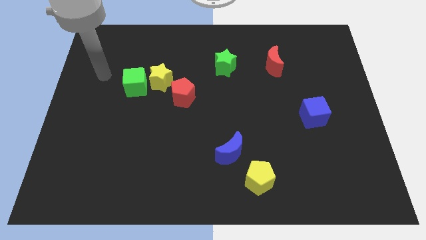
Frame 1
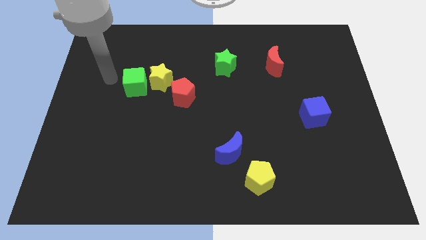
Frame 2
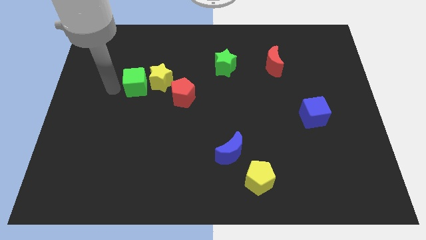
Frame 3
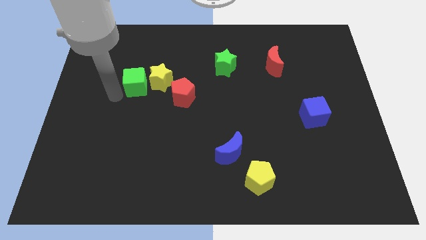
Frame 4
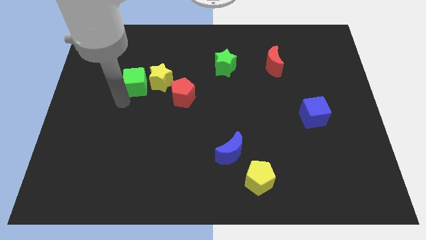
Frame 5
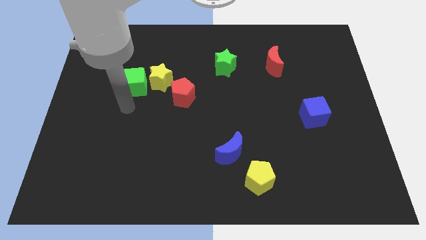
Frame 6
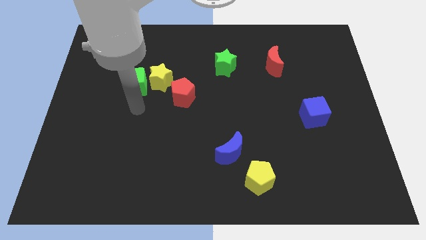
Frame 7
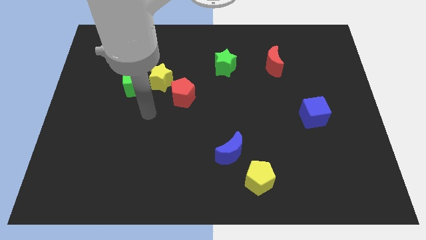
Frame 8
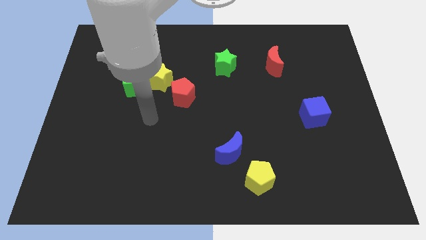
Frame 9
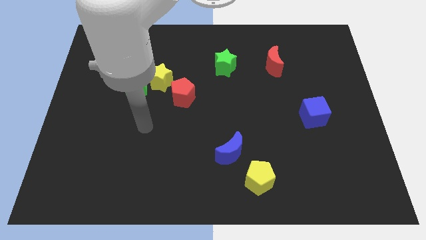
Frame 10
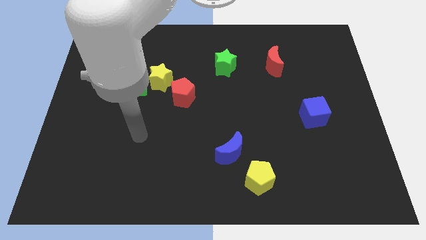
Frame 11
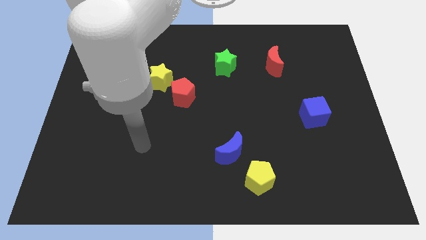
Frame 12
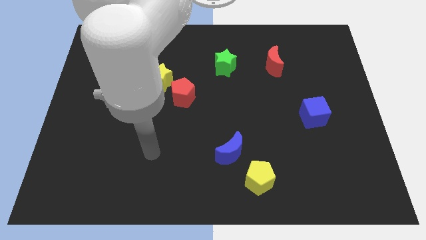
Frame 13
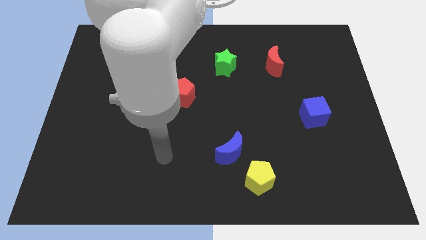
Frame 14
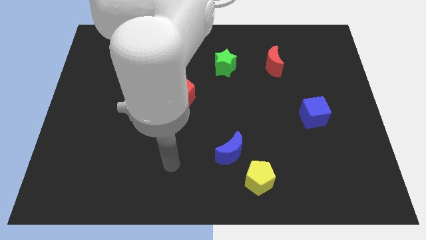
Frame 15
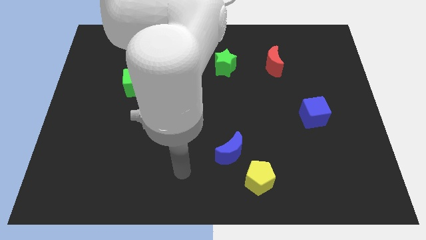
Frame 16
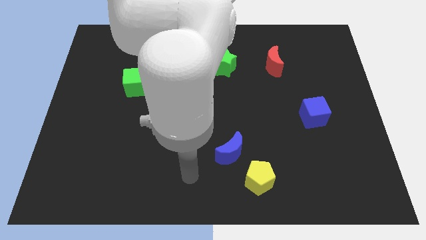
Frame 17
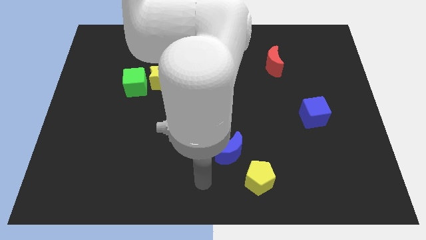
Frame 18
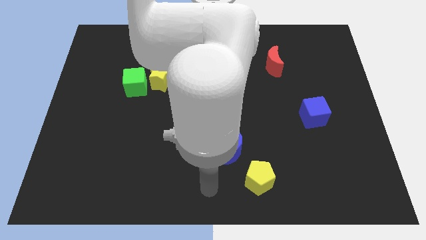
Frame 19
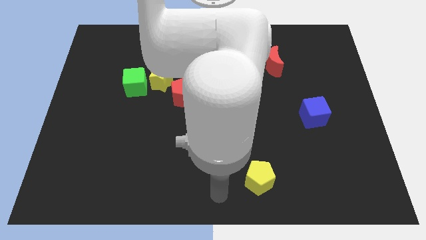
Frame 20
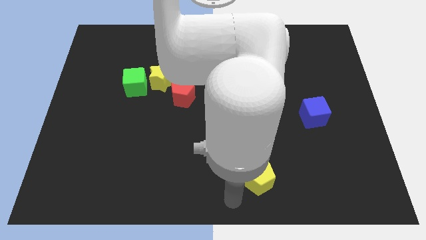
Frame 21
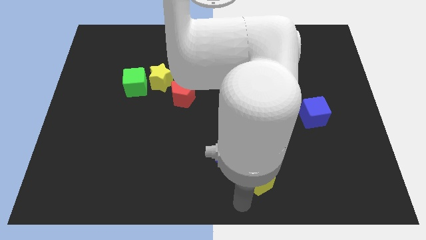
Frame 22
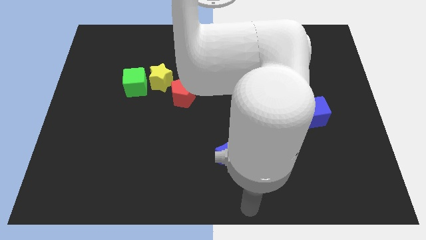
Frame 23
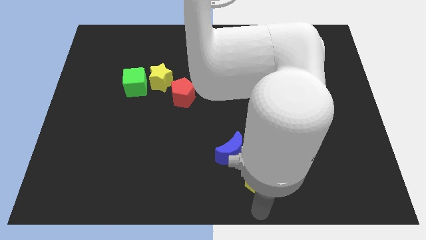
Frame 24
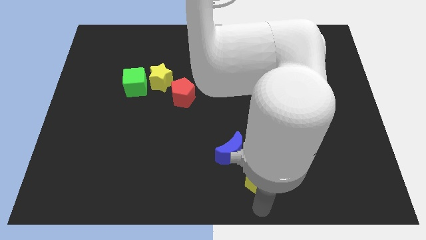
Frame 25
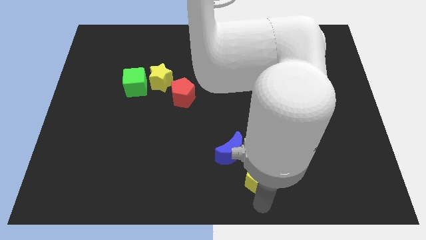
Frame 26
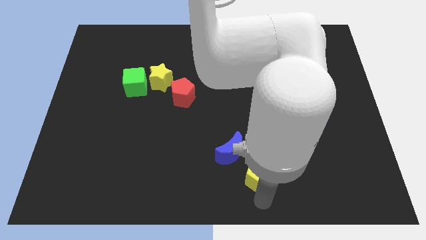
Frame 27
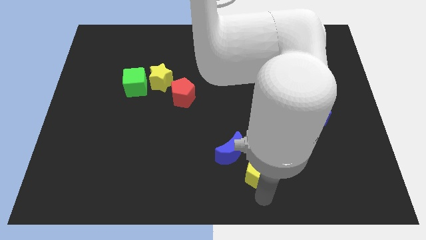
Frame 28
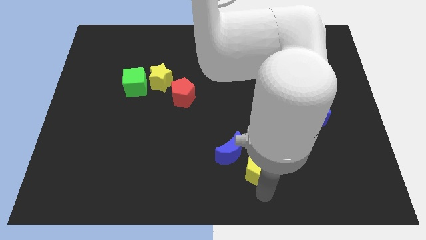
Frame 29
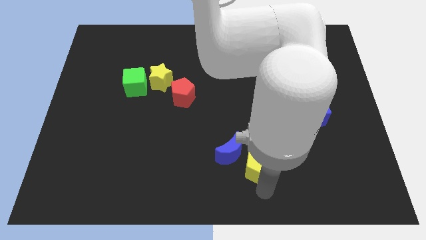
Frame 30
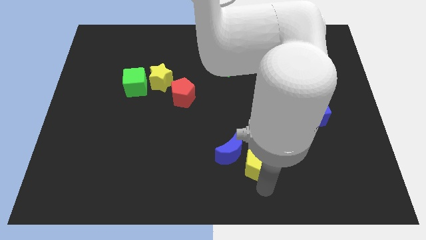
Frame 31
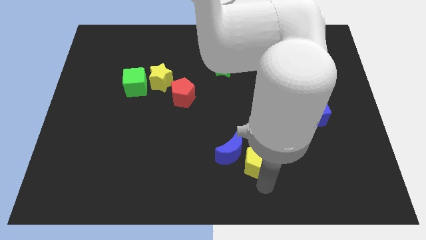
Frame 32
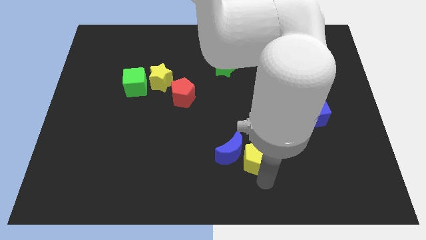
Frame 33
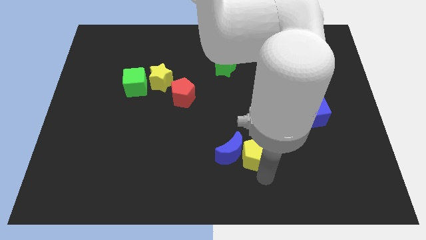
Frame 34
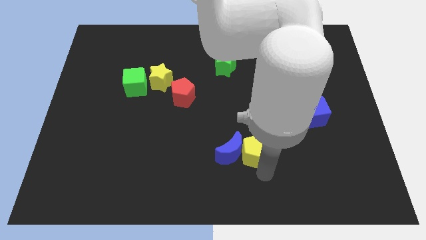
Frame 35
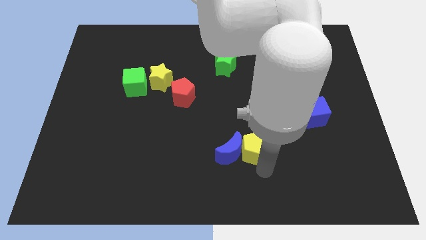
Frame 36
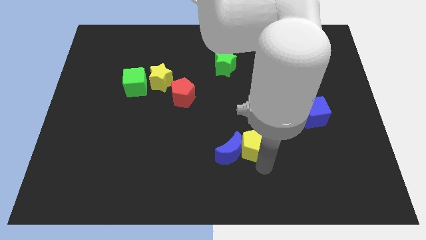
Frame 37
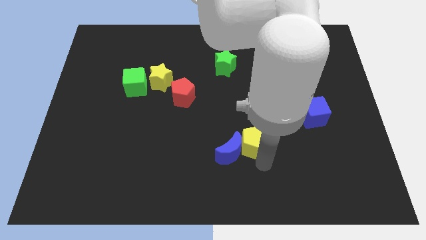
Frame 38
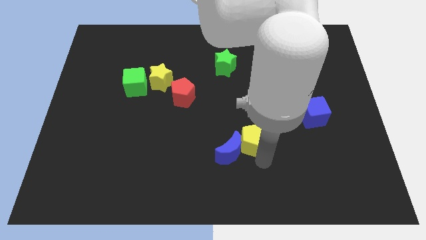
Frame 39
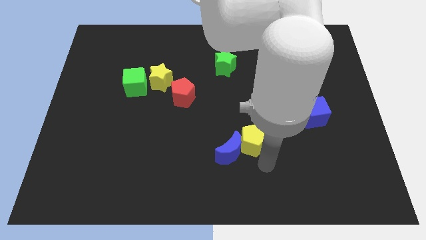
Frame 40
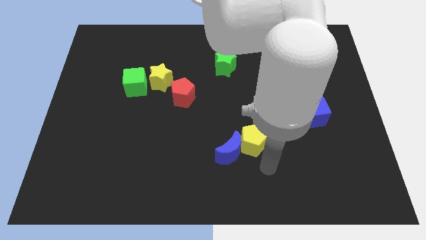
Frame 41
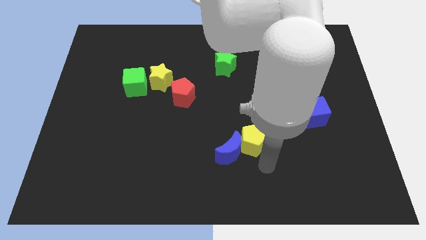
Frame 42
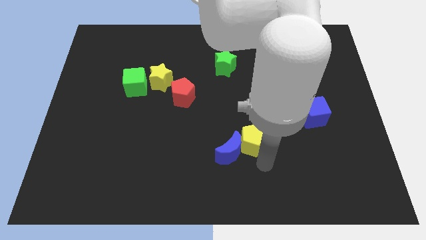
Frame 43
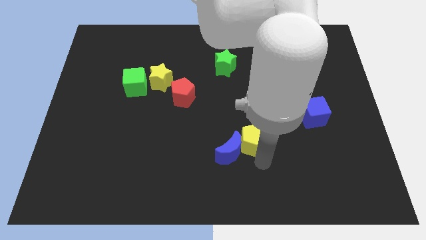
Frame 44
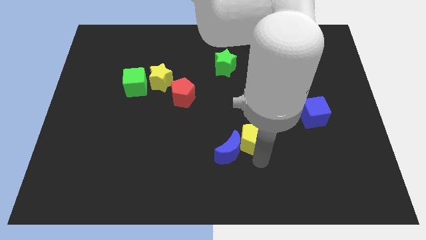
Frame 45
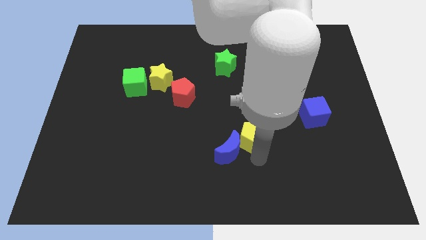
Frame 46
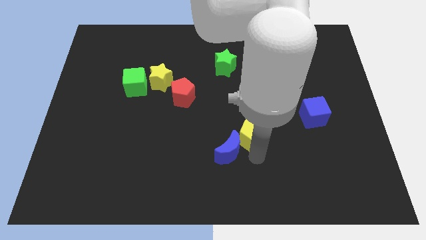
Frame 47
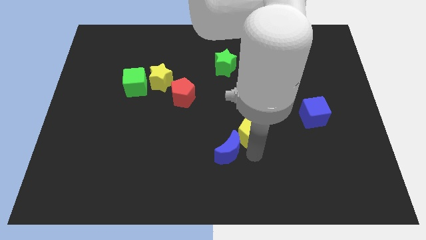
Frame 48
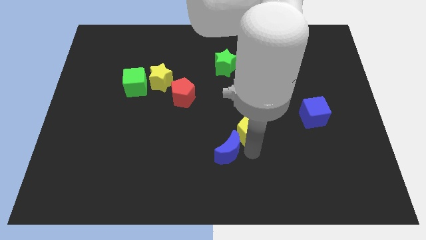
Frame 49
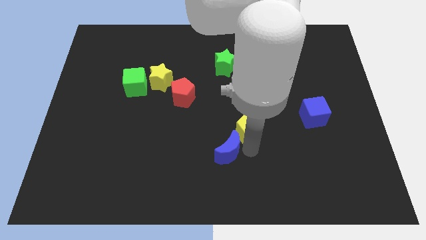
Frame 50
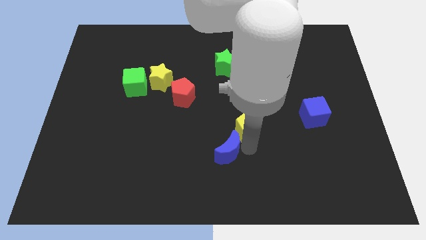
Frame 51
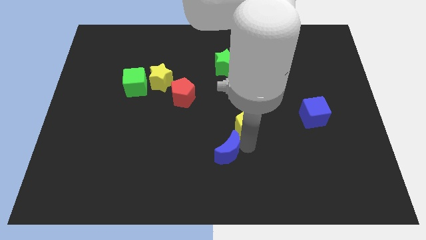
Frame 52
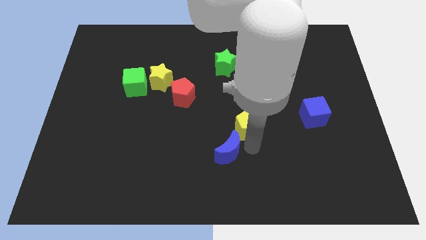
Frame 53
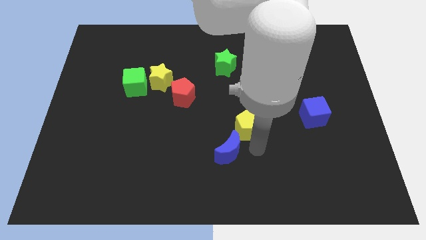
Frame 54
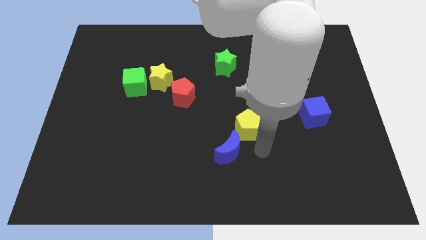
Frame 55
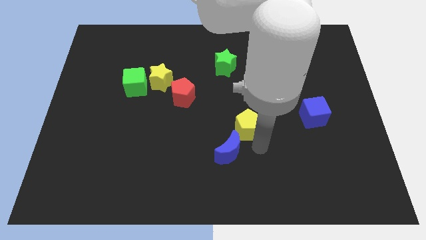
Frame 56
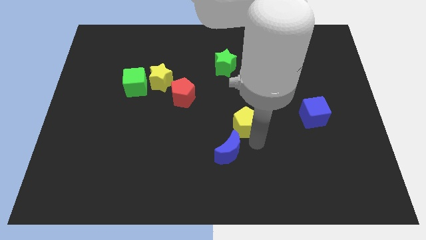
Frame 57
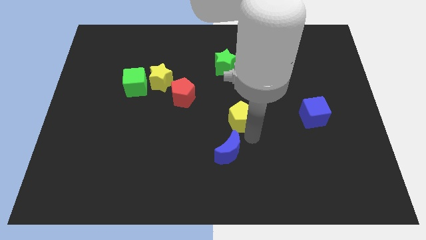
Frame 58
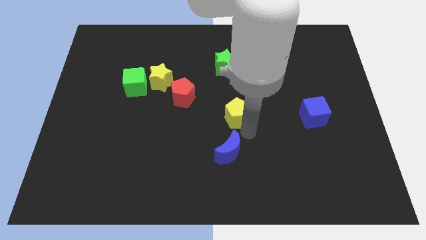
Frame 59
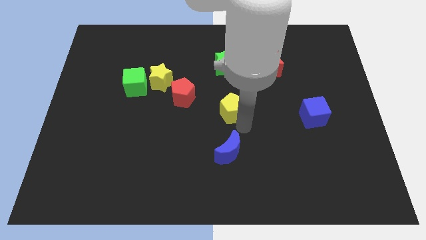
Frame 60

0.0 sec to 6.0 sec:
put the yellow pentagon below the green star

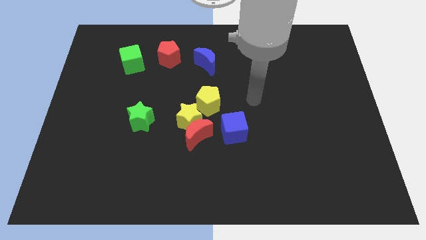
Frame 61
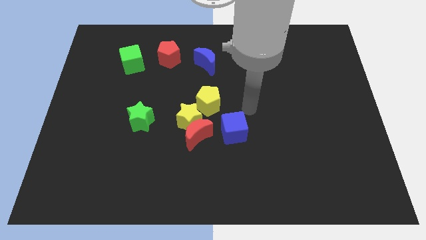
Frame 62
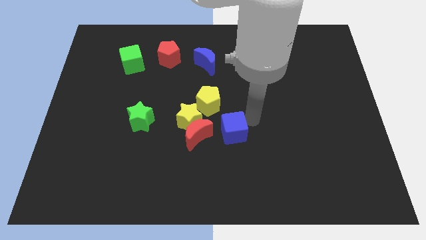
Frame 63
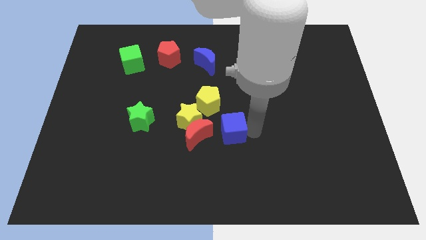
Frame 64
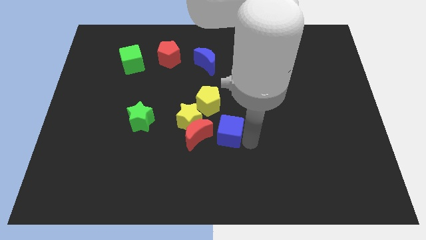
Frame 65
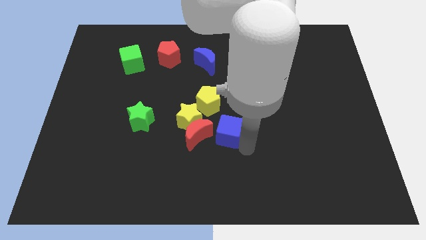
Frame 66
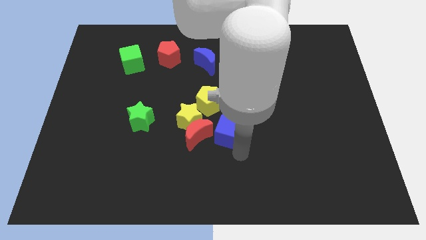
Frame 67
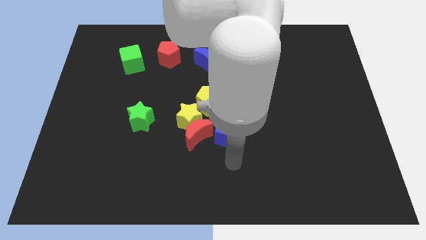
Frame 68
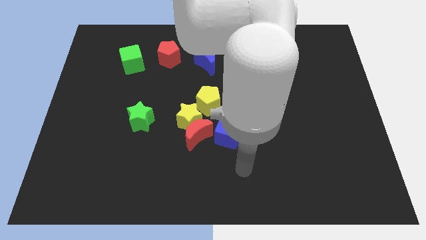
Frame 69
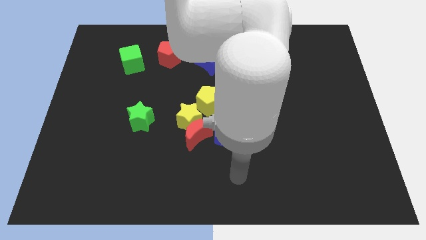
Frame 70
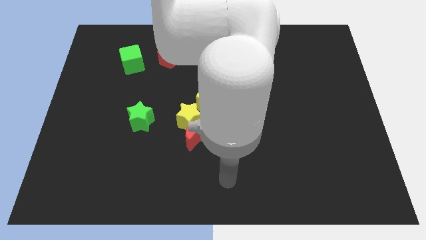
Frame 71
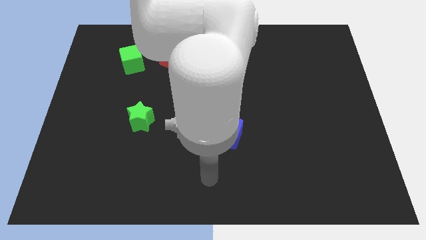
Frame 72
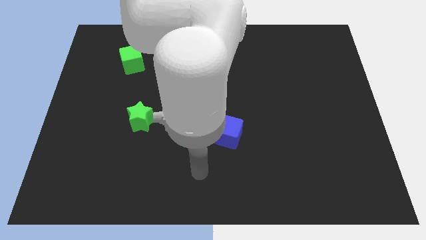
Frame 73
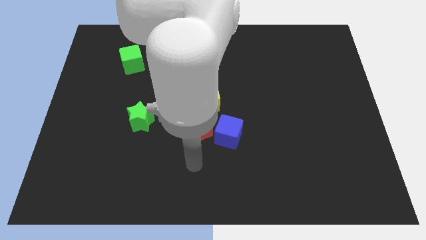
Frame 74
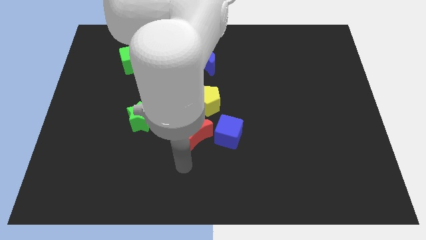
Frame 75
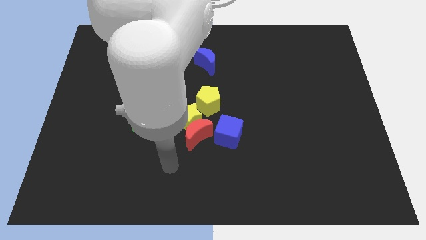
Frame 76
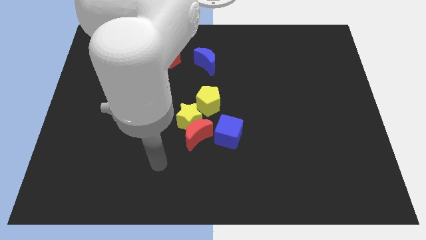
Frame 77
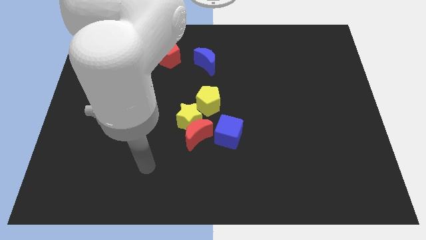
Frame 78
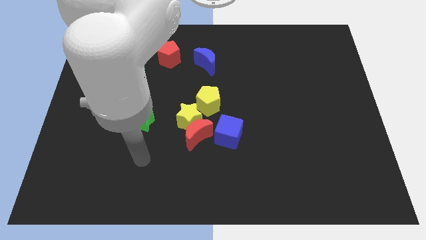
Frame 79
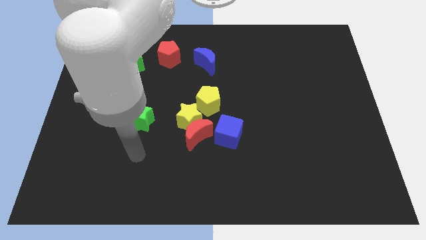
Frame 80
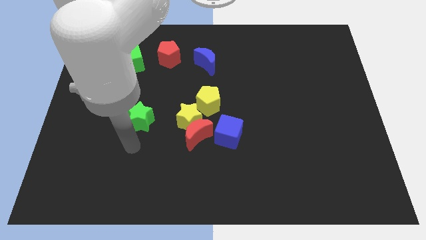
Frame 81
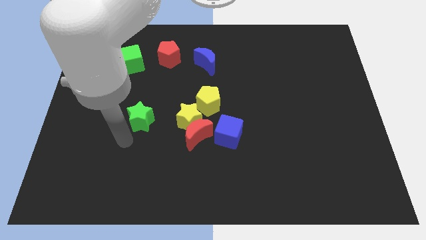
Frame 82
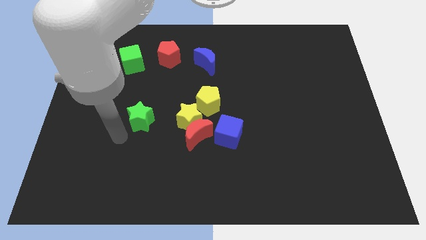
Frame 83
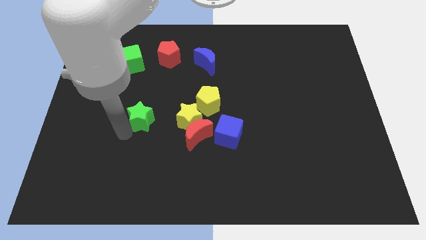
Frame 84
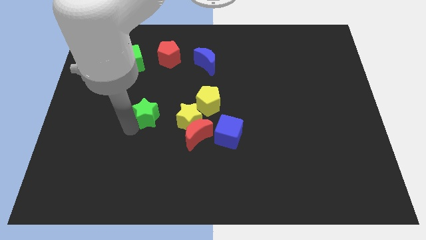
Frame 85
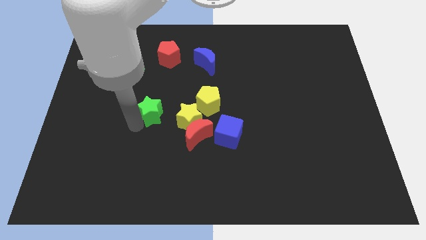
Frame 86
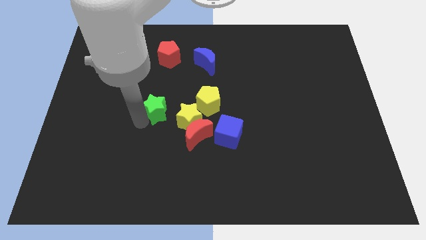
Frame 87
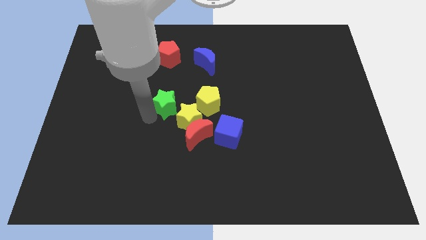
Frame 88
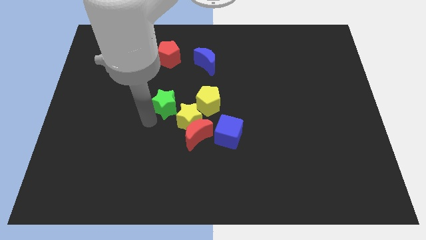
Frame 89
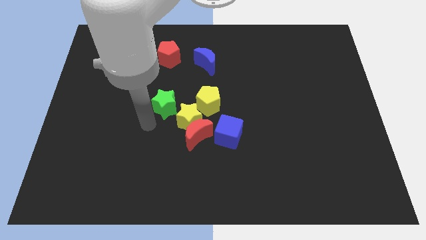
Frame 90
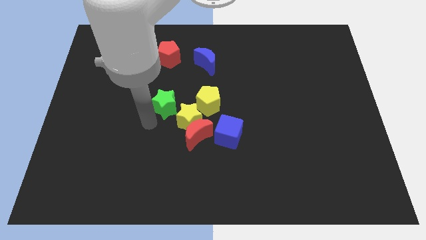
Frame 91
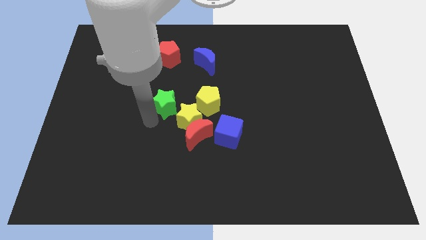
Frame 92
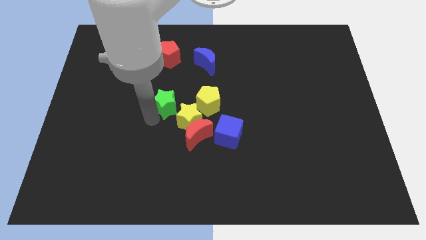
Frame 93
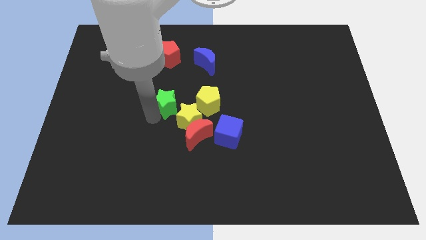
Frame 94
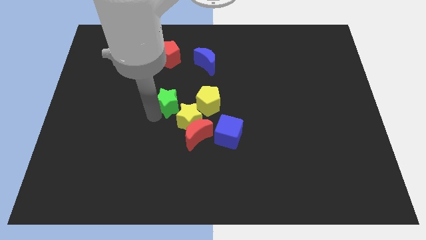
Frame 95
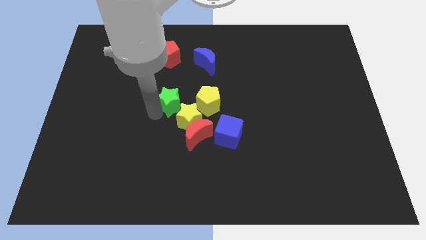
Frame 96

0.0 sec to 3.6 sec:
move the green star to the top side of the yellow star
